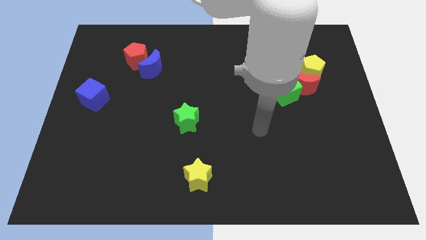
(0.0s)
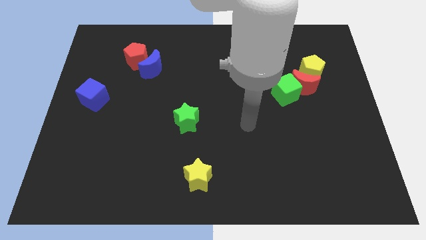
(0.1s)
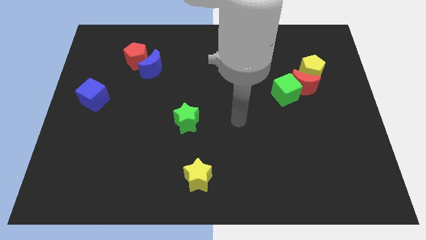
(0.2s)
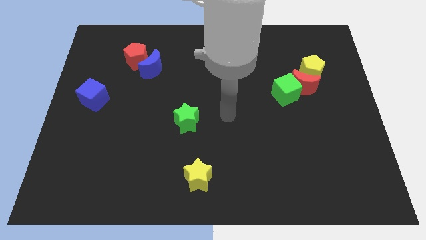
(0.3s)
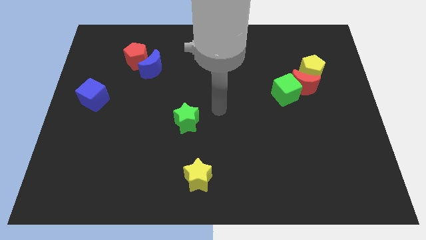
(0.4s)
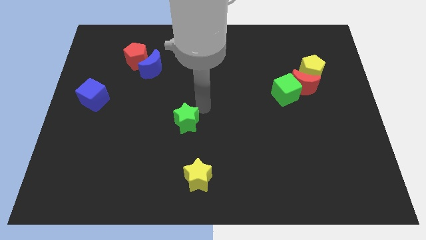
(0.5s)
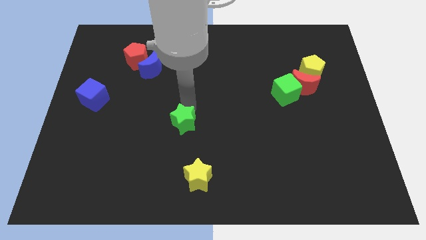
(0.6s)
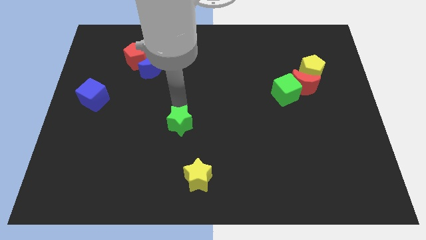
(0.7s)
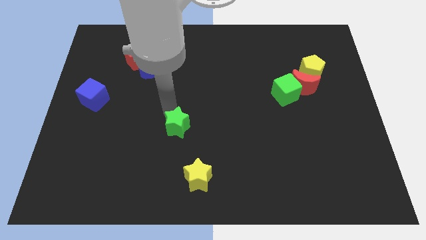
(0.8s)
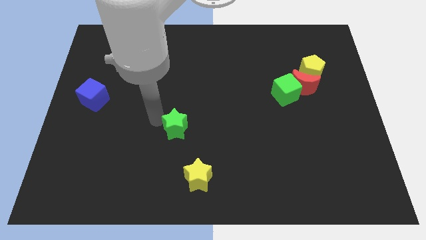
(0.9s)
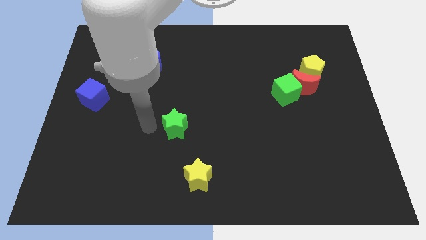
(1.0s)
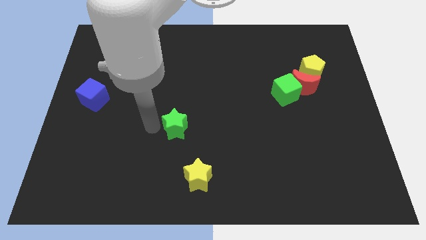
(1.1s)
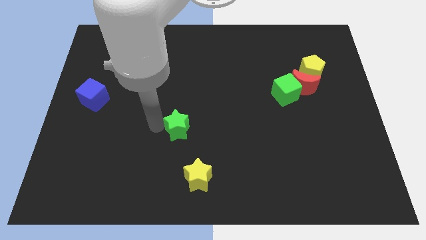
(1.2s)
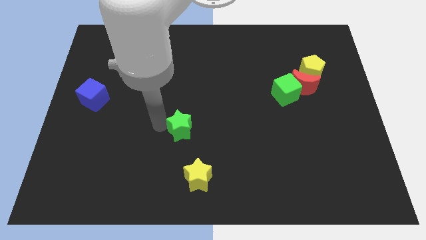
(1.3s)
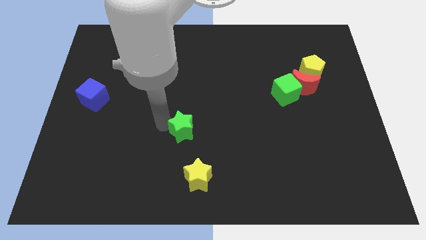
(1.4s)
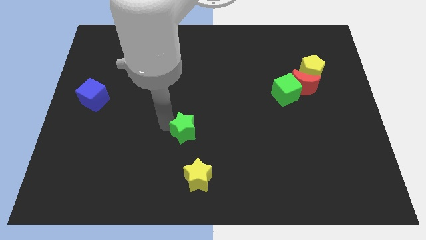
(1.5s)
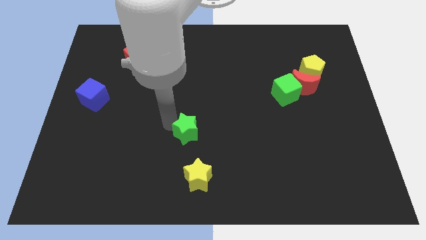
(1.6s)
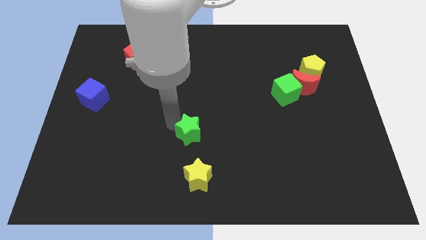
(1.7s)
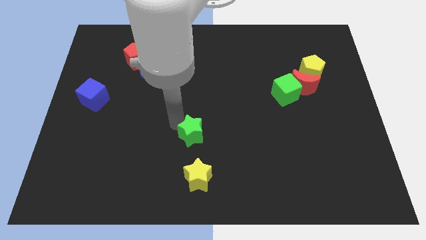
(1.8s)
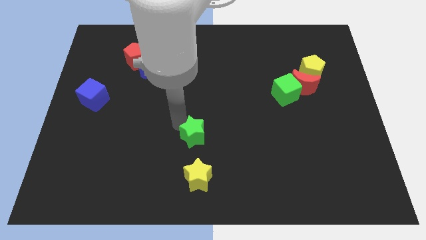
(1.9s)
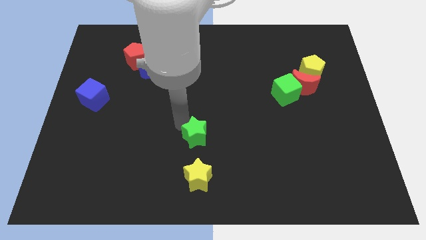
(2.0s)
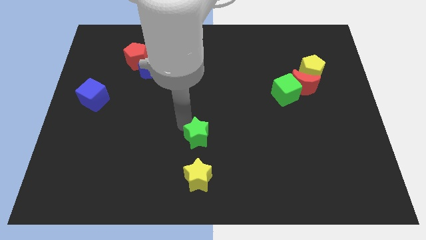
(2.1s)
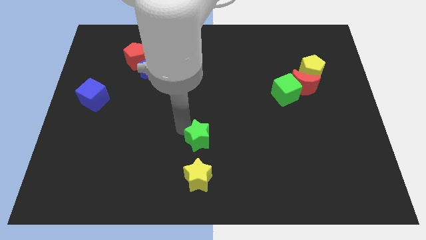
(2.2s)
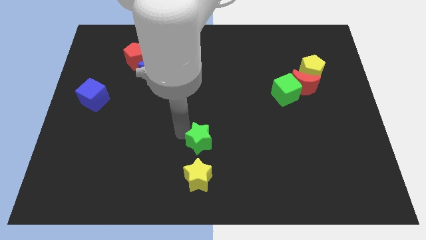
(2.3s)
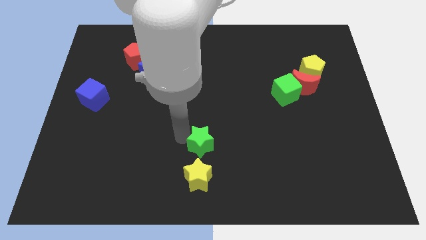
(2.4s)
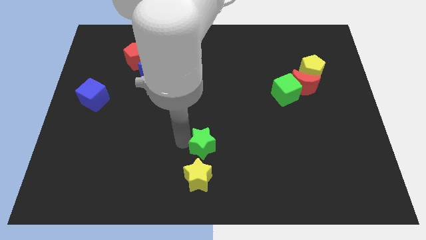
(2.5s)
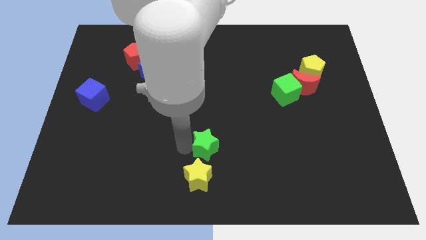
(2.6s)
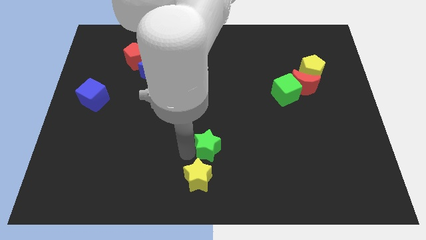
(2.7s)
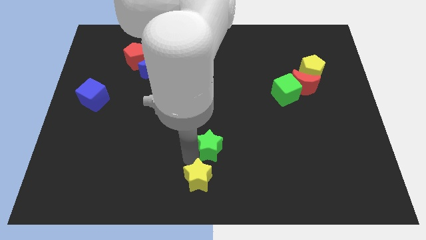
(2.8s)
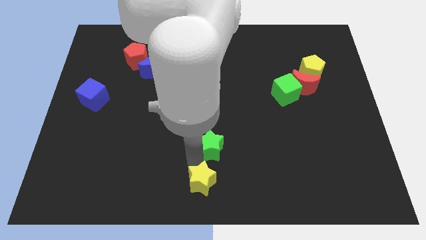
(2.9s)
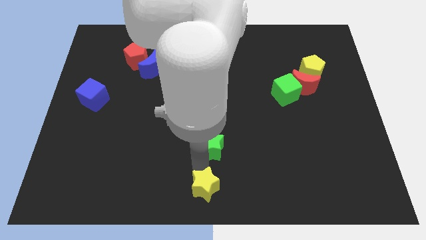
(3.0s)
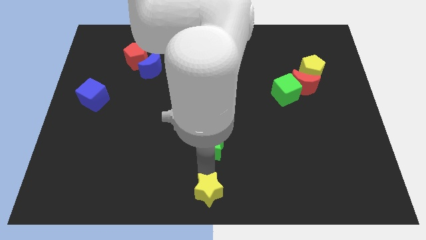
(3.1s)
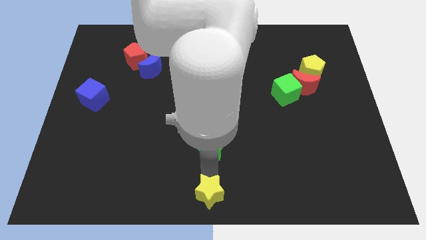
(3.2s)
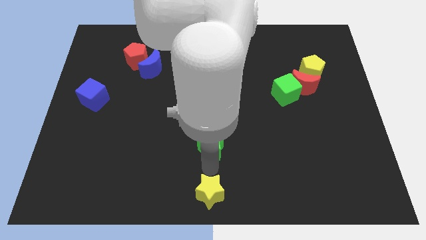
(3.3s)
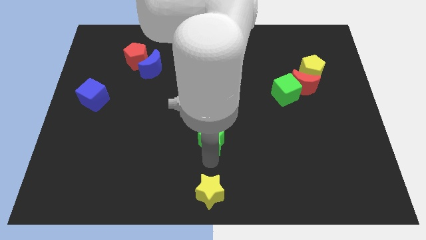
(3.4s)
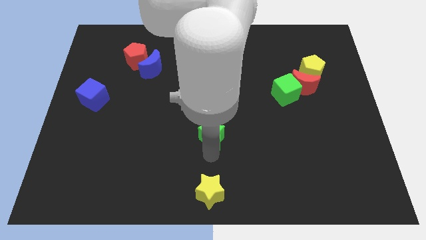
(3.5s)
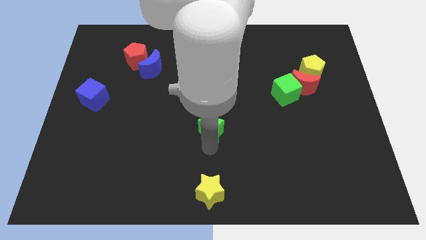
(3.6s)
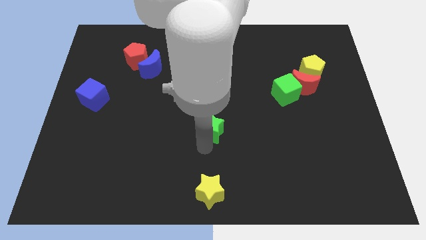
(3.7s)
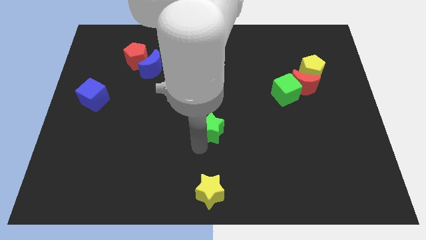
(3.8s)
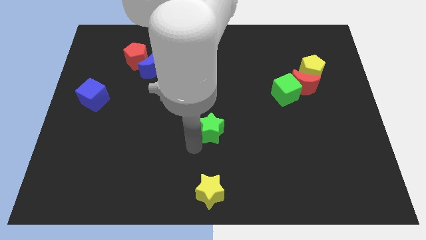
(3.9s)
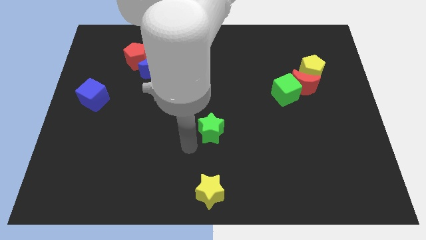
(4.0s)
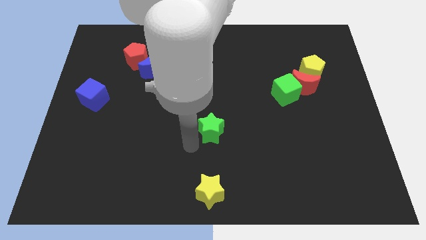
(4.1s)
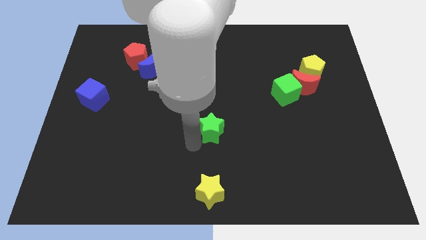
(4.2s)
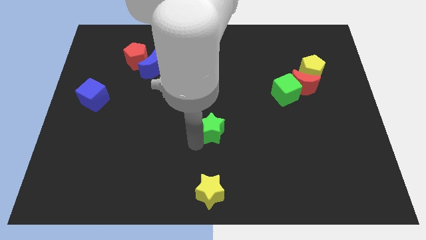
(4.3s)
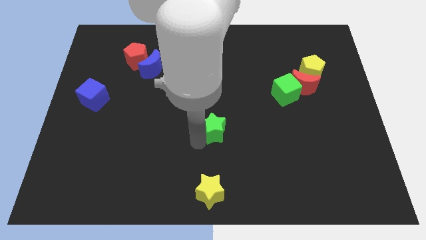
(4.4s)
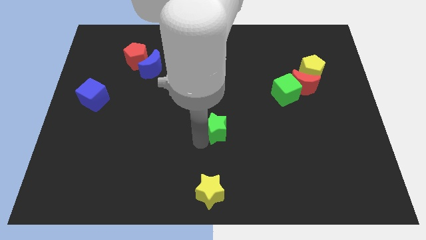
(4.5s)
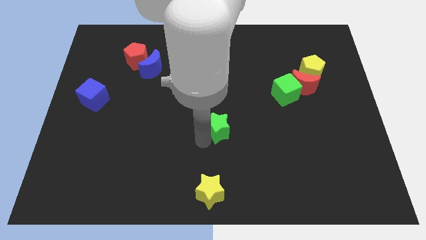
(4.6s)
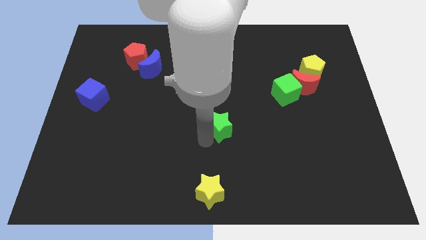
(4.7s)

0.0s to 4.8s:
slightly move the green star to the right

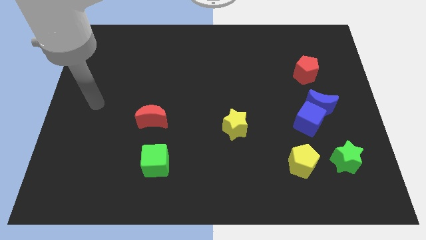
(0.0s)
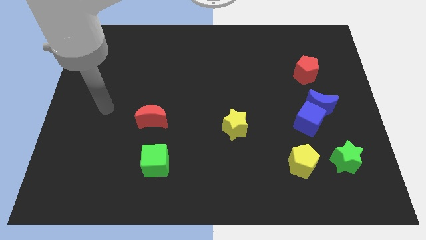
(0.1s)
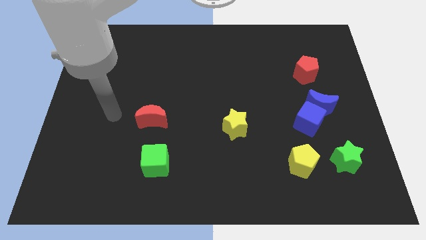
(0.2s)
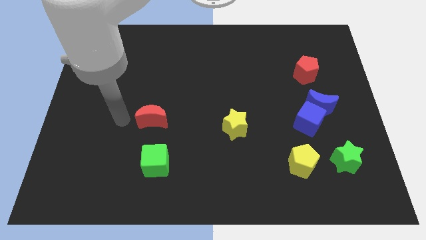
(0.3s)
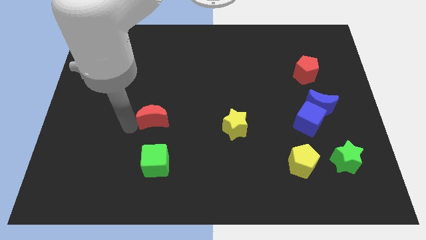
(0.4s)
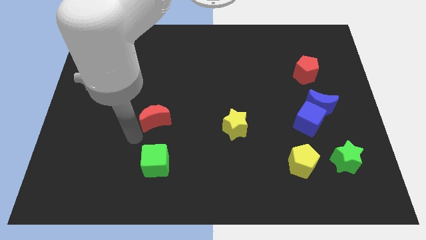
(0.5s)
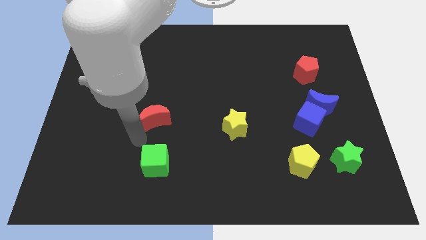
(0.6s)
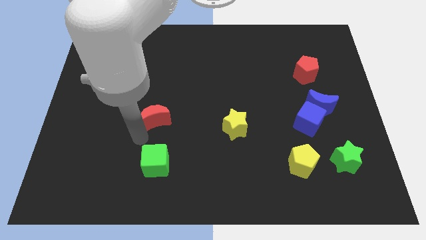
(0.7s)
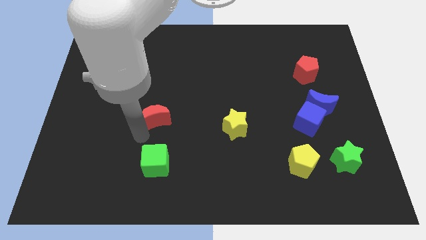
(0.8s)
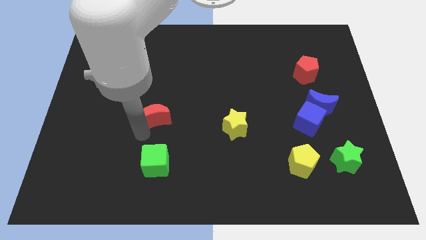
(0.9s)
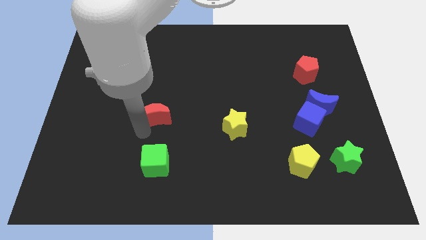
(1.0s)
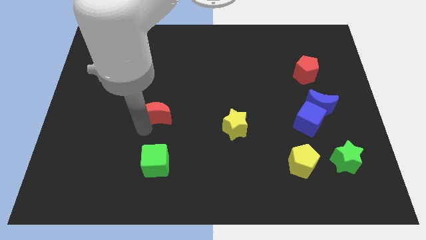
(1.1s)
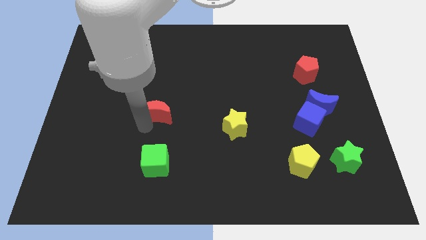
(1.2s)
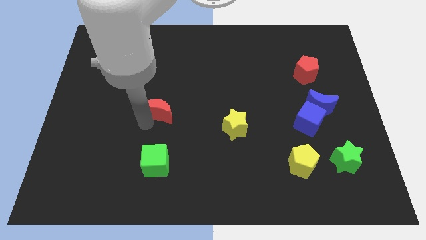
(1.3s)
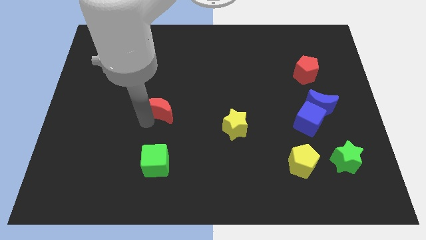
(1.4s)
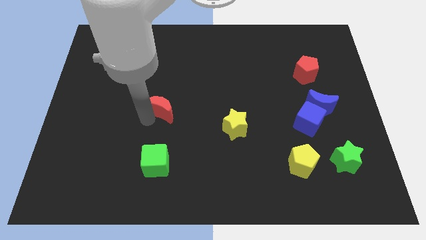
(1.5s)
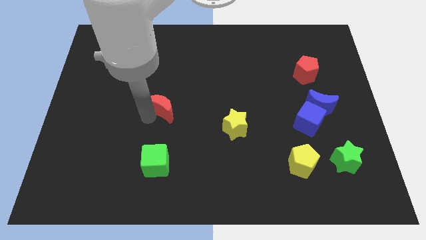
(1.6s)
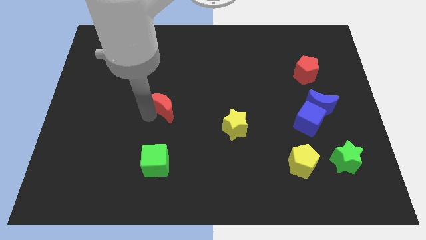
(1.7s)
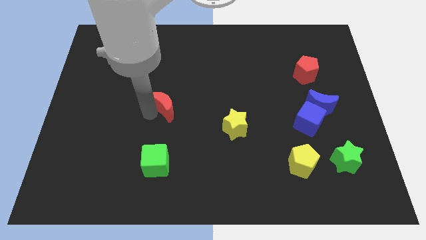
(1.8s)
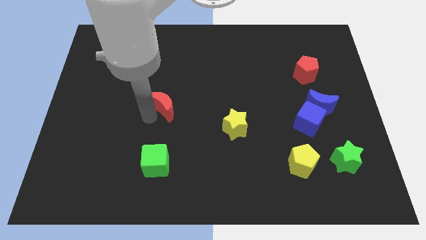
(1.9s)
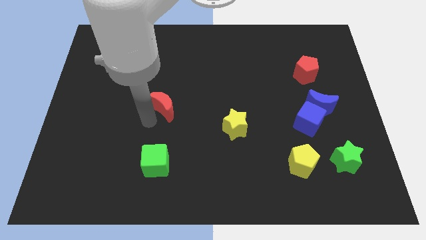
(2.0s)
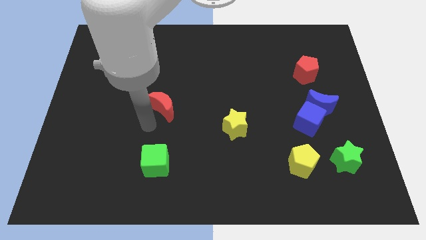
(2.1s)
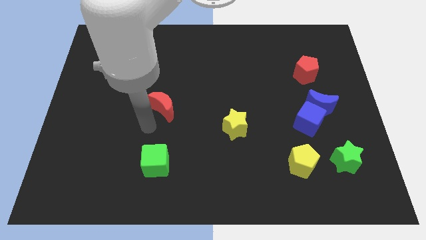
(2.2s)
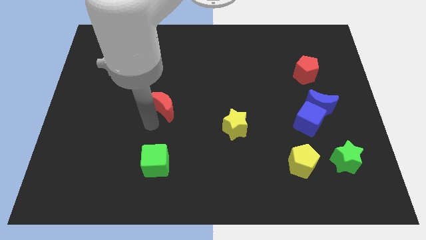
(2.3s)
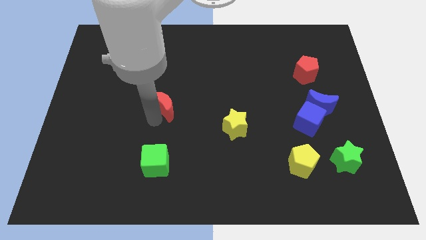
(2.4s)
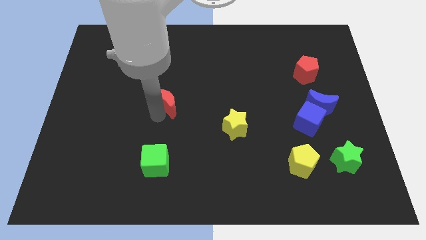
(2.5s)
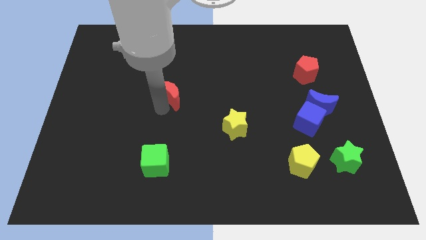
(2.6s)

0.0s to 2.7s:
slightly slide the red moon up and then right

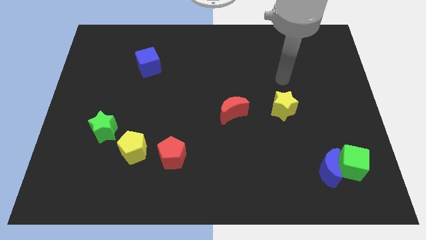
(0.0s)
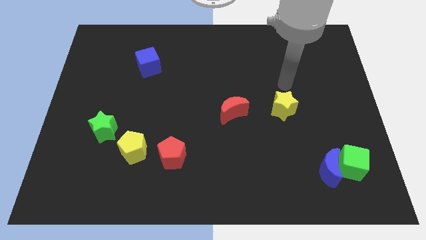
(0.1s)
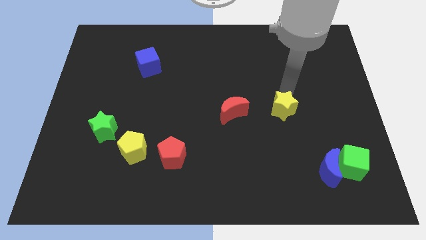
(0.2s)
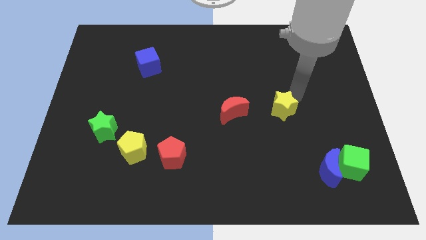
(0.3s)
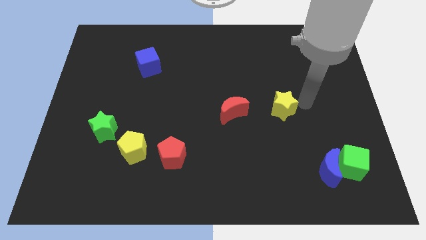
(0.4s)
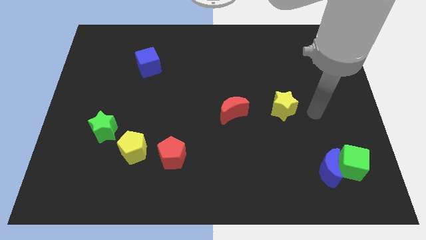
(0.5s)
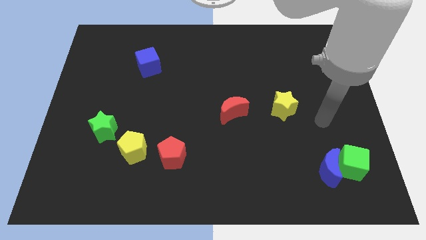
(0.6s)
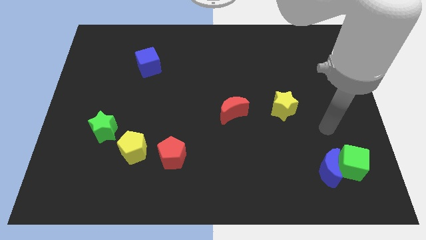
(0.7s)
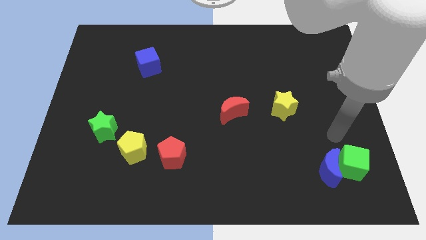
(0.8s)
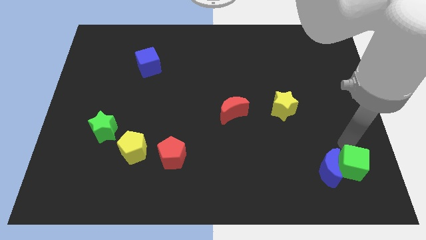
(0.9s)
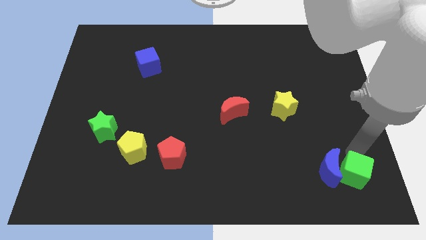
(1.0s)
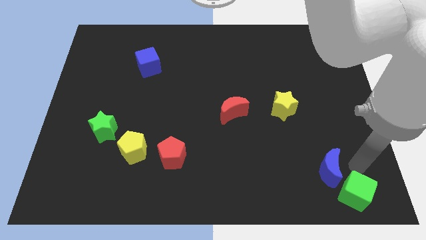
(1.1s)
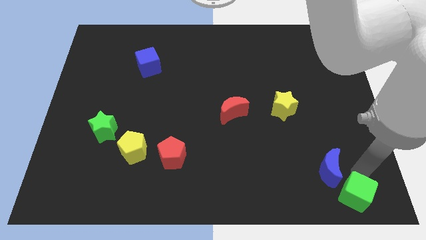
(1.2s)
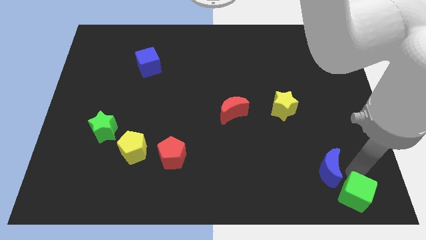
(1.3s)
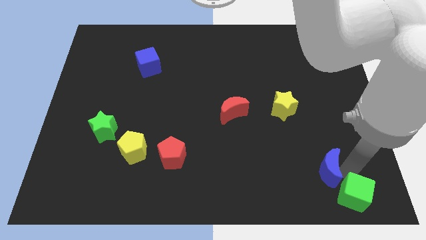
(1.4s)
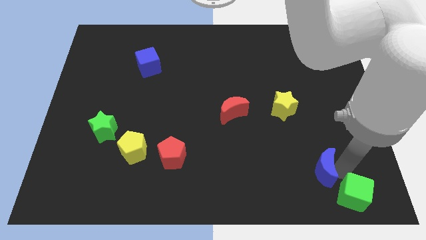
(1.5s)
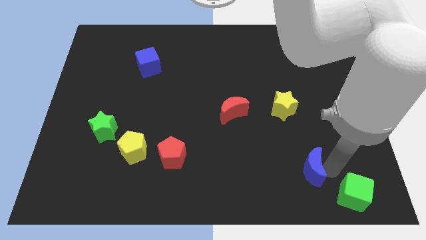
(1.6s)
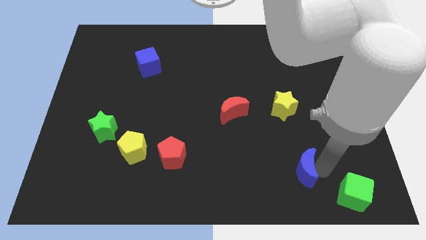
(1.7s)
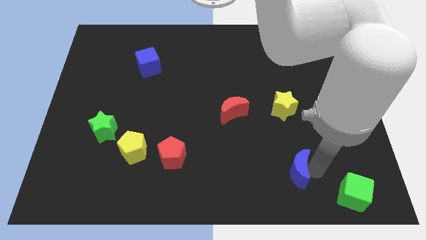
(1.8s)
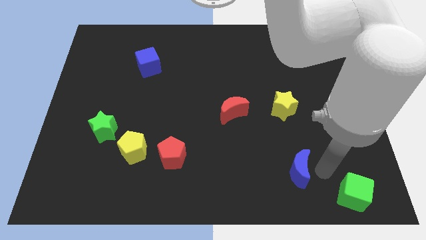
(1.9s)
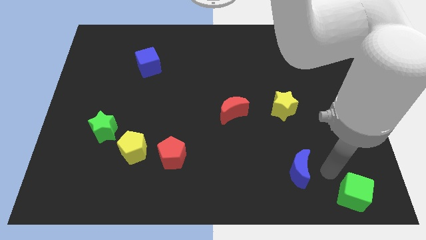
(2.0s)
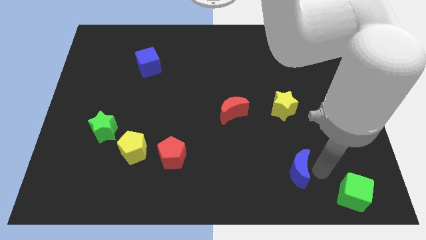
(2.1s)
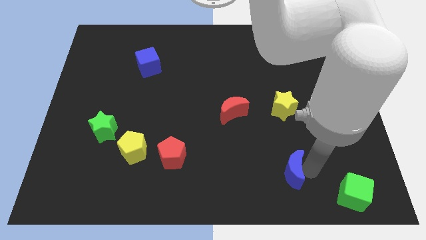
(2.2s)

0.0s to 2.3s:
slide the blue moon a bit to the left
